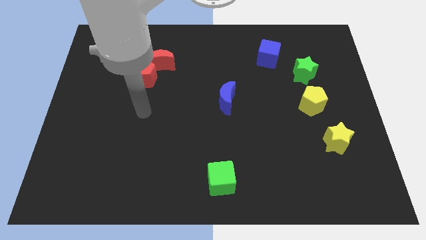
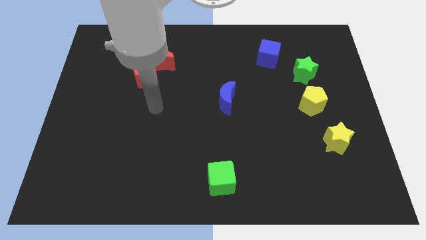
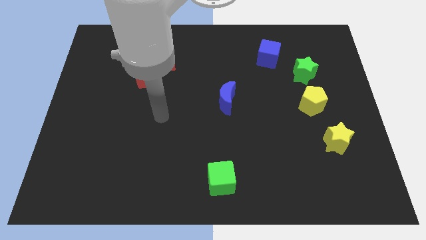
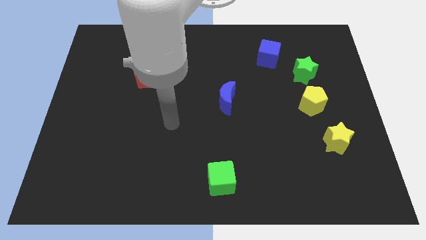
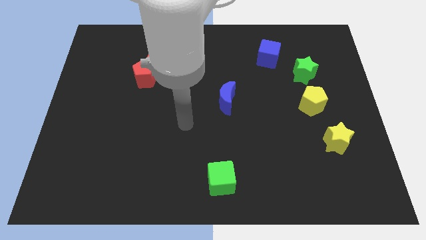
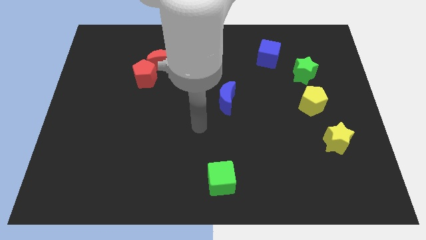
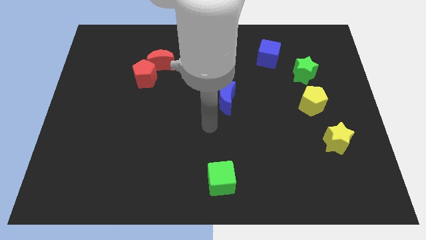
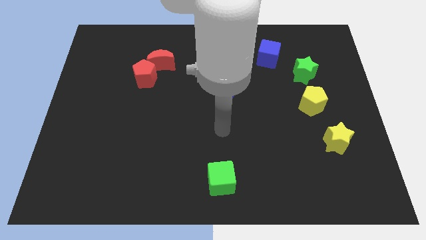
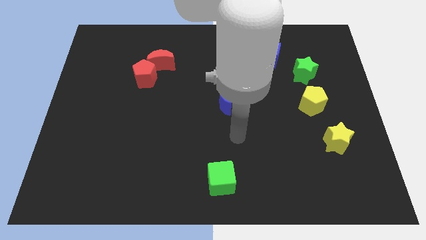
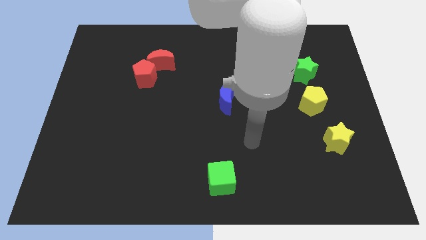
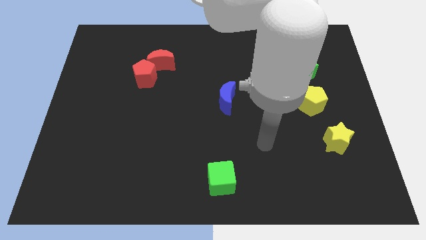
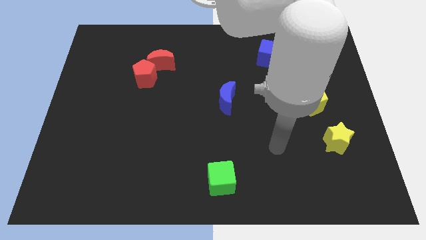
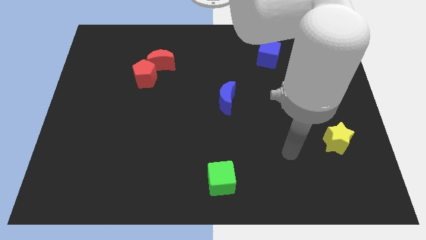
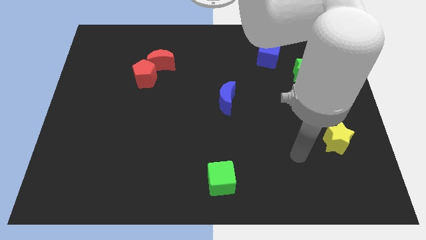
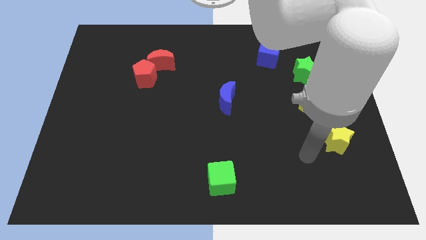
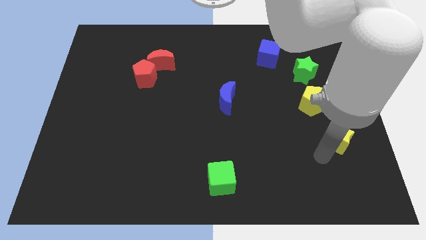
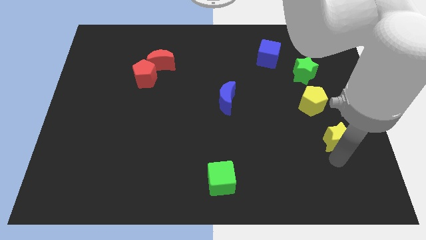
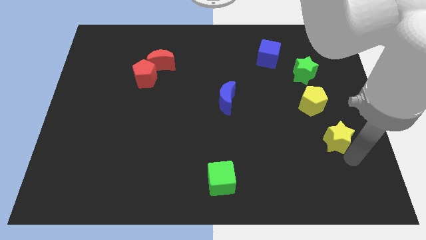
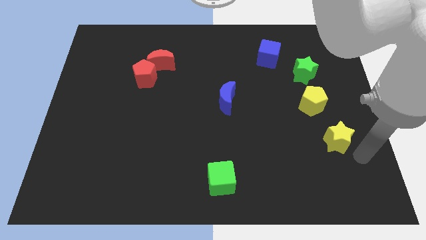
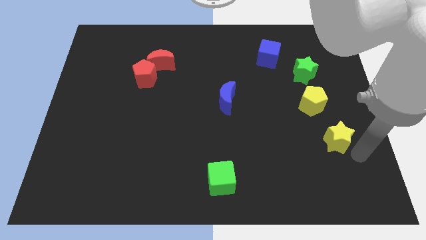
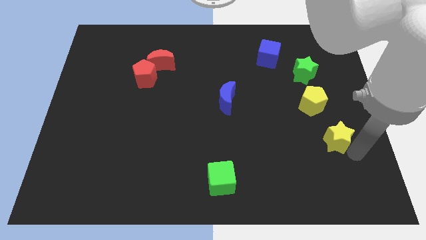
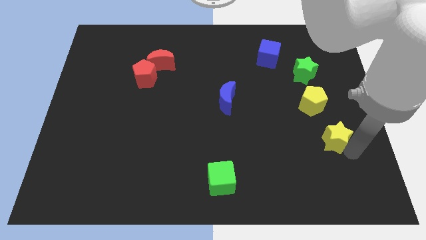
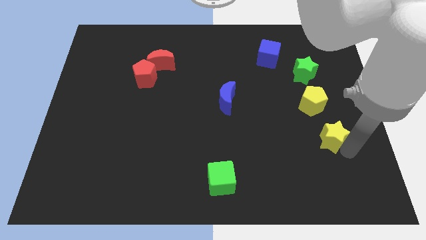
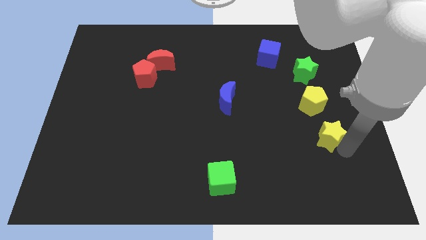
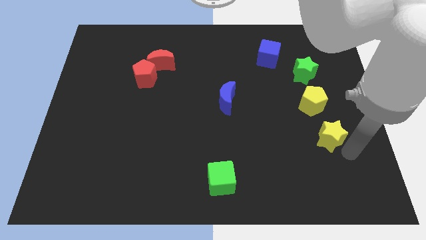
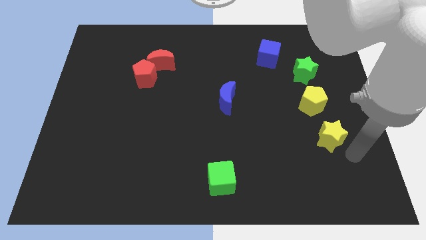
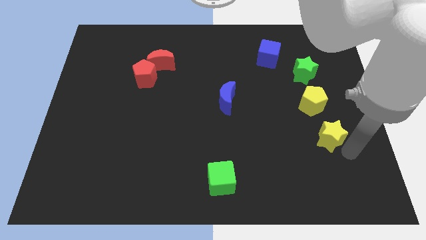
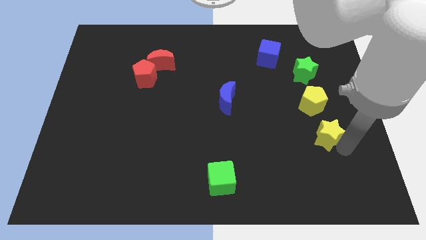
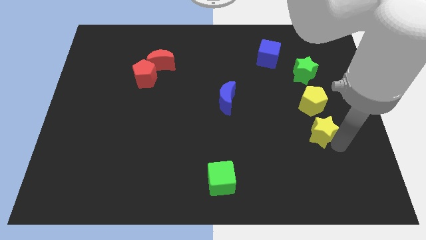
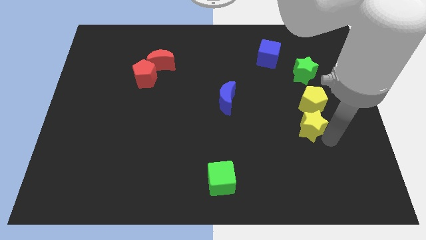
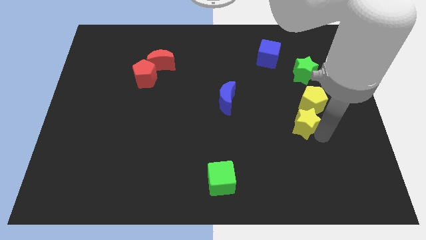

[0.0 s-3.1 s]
move the yellow star slightly upwards and then left

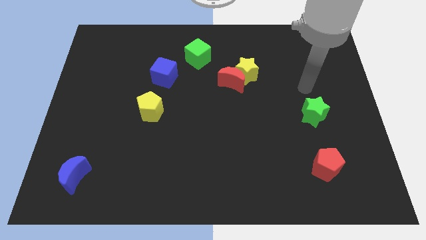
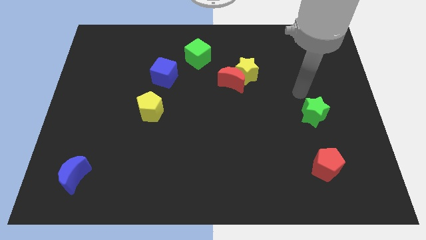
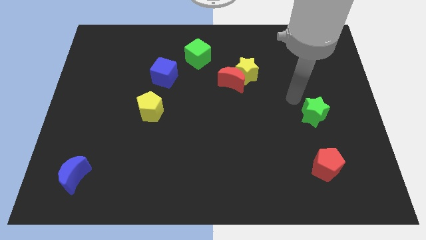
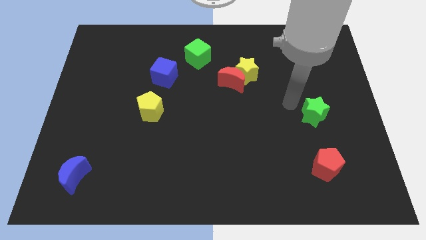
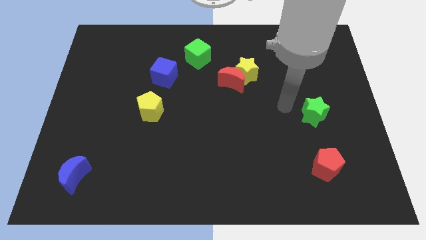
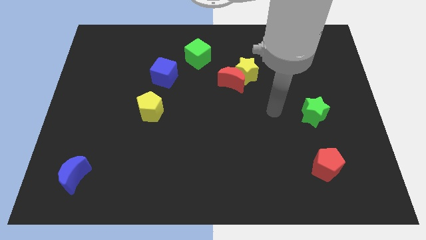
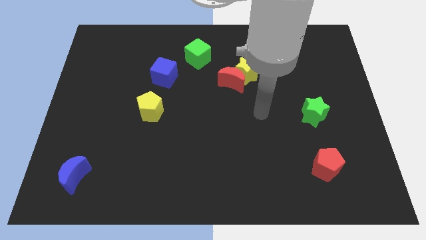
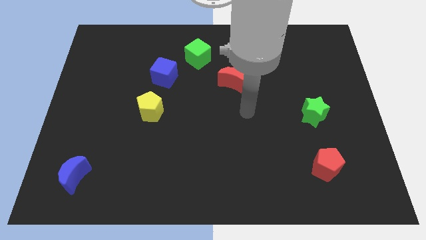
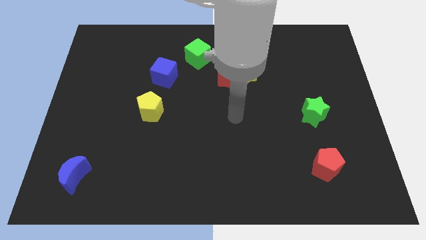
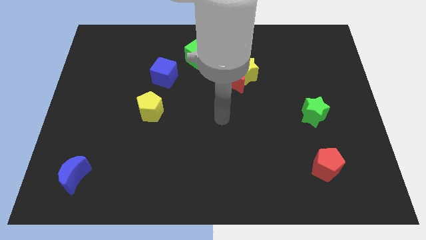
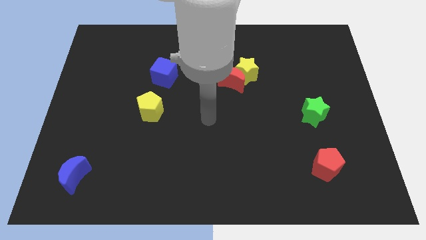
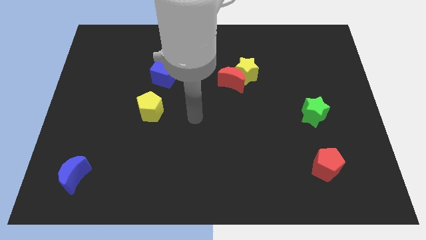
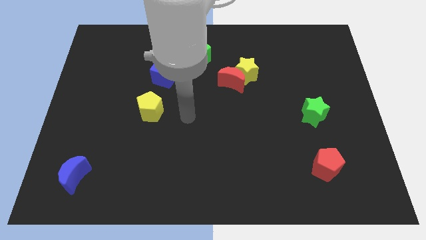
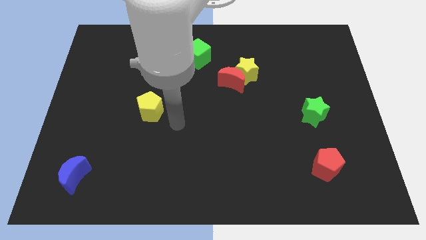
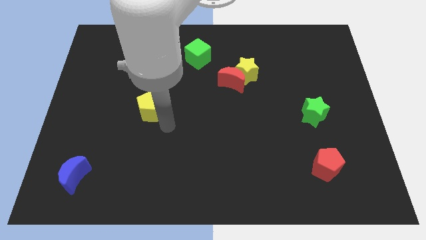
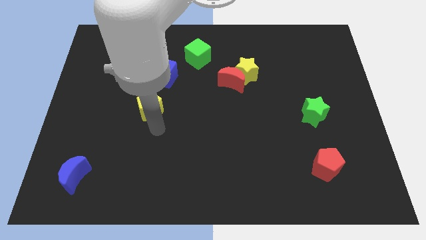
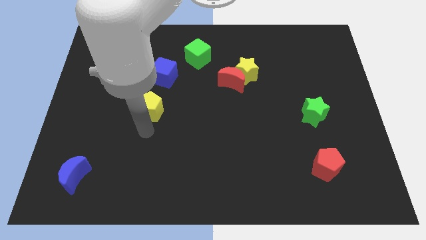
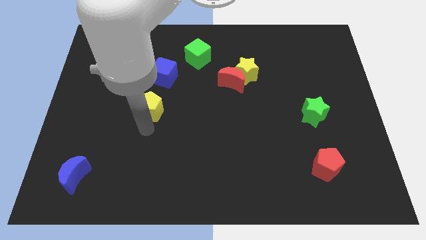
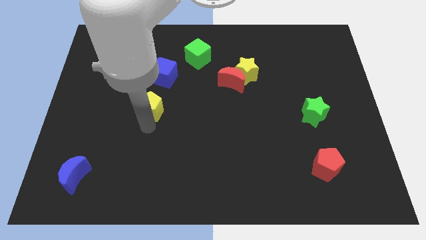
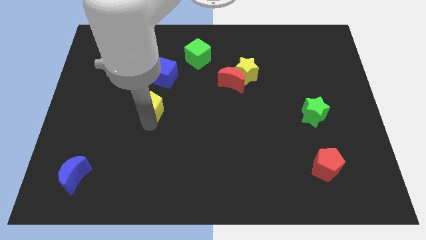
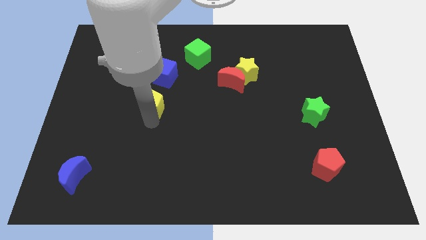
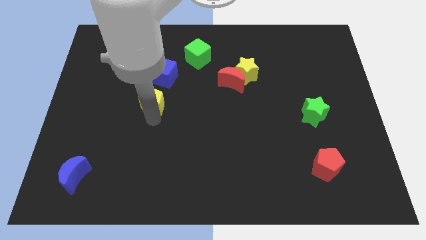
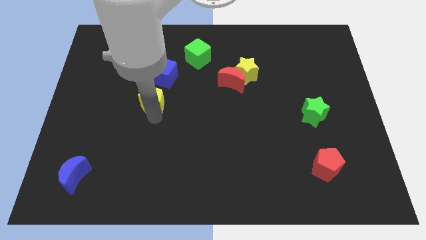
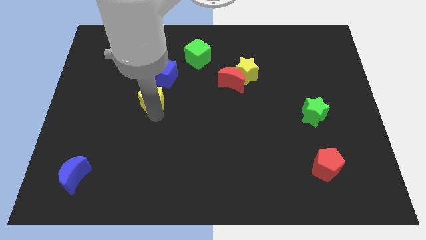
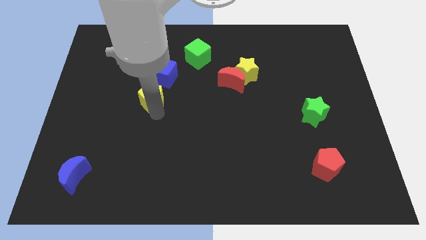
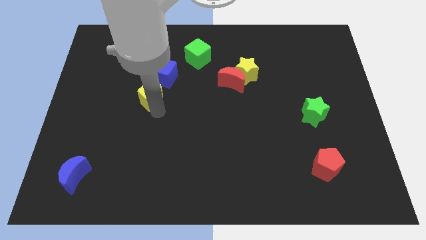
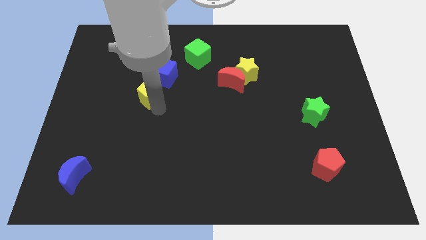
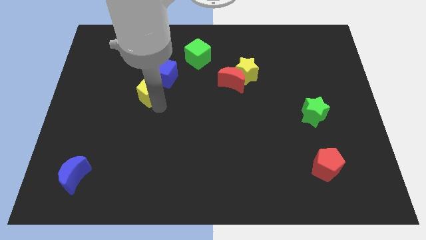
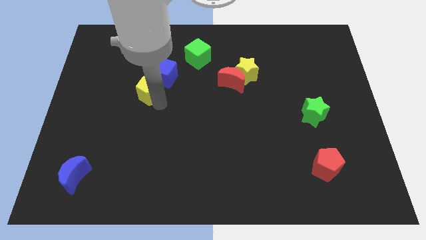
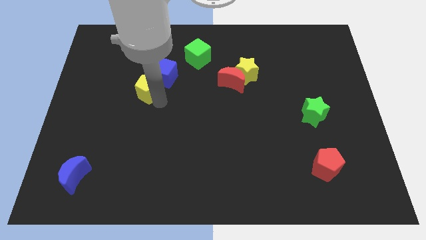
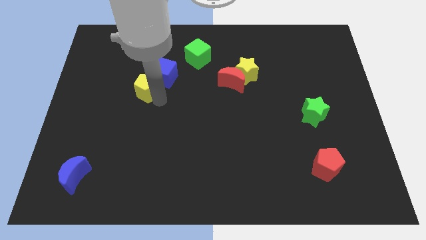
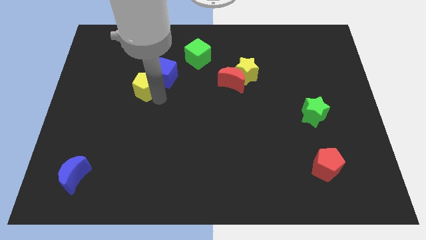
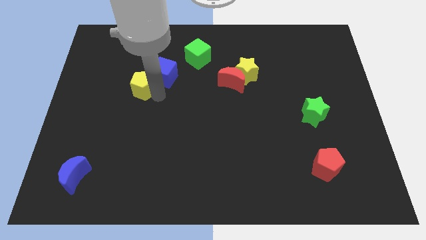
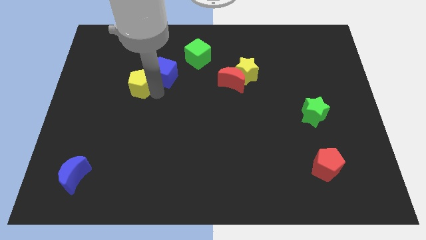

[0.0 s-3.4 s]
slide the yellow pentagon diagonally up and to the left a bit

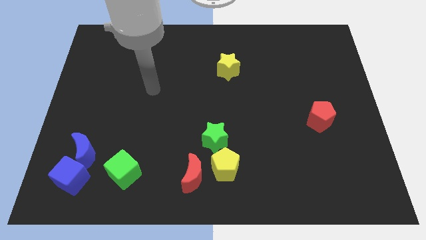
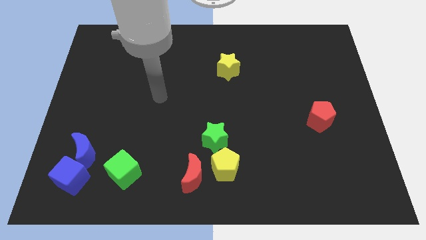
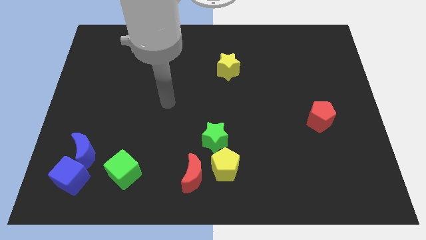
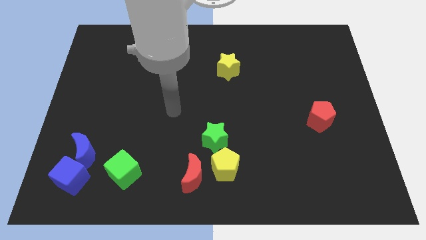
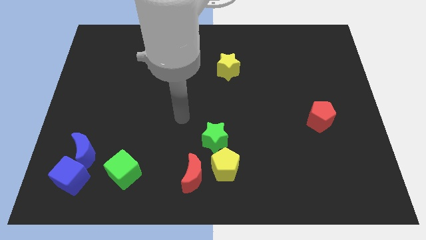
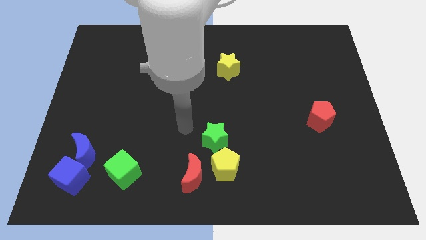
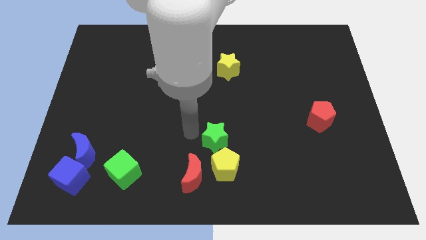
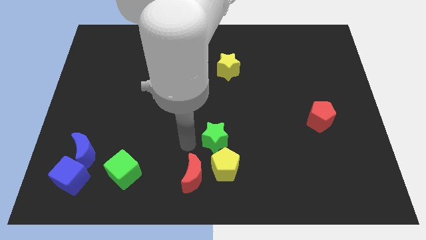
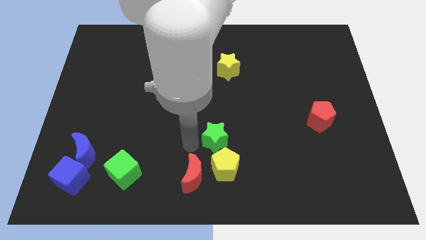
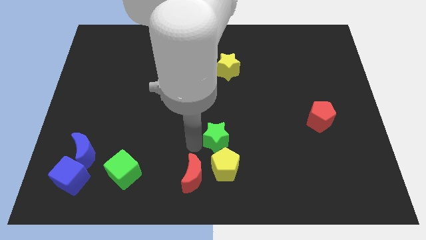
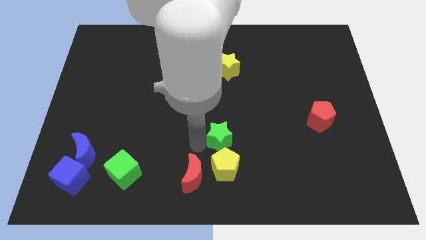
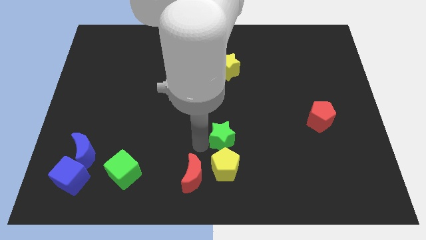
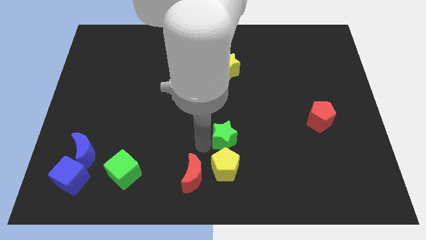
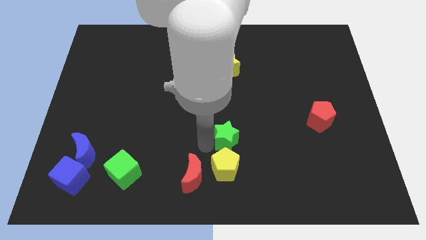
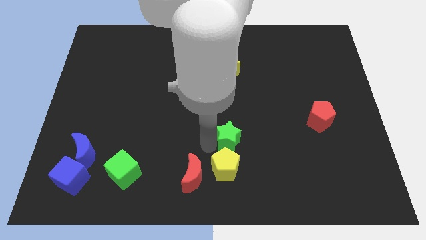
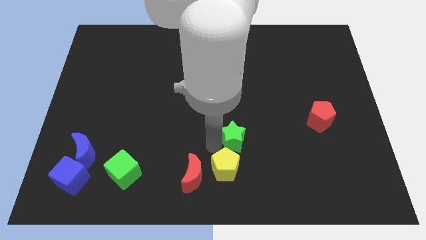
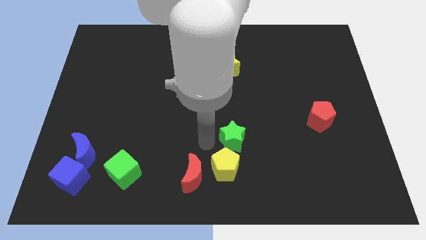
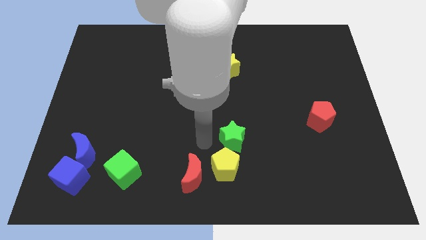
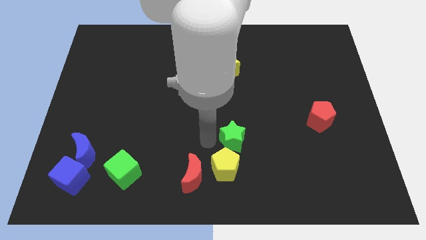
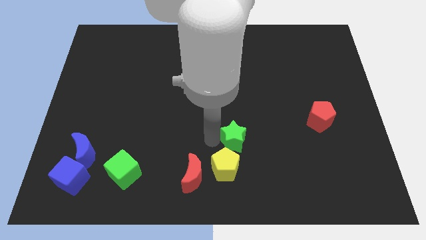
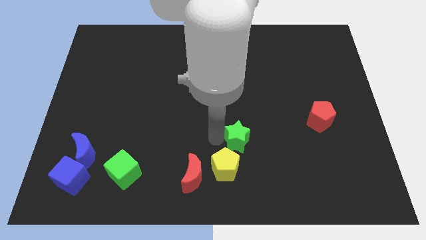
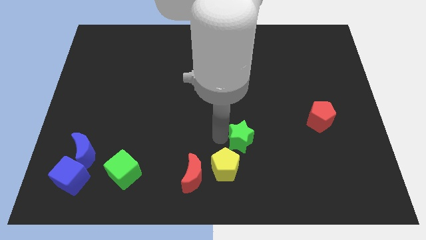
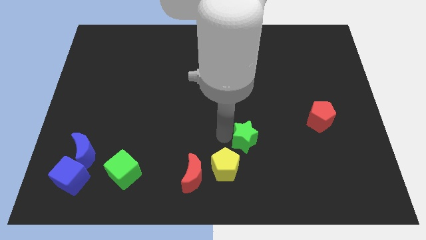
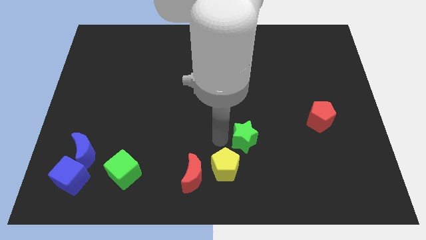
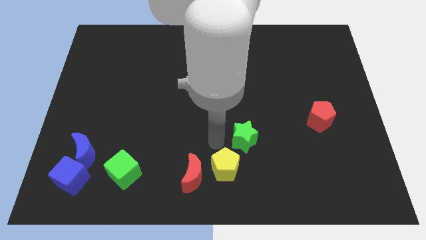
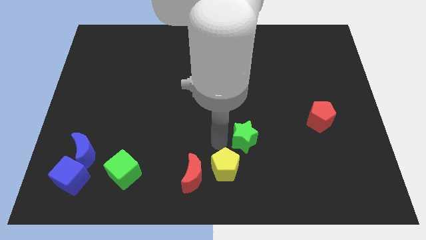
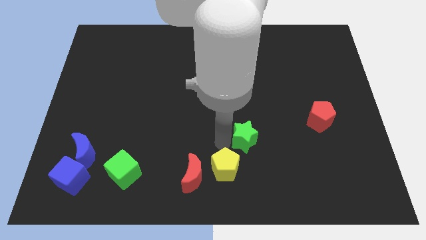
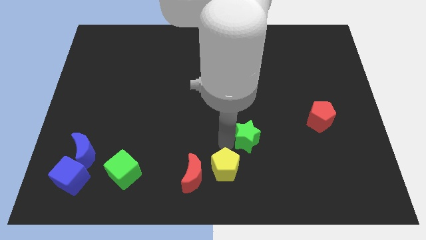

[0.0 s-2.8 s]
move the green star slightly to the right
